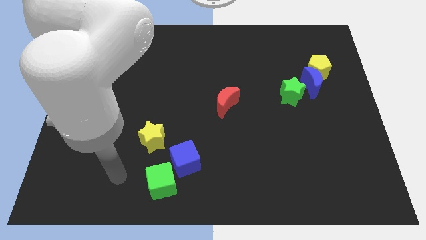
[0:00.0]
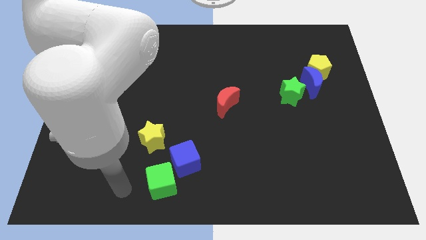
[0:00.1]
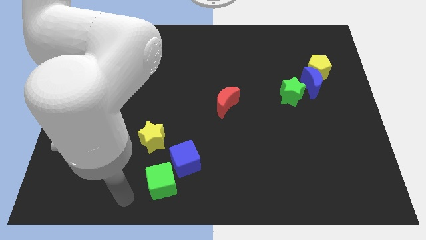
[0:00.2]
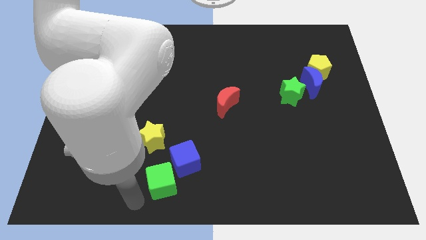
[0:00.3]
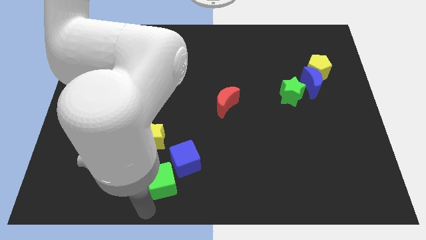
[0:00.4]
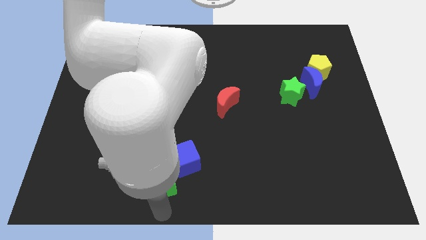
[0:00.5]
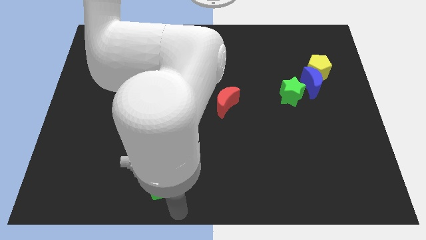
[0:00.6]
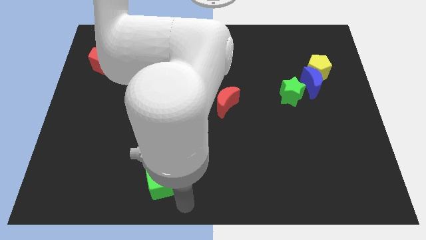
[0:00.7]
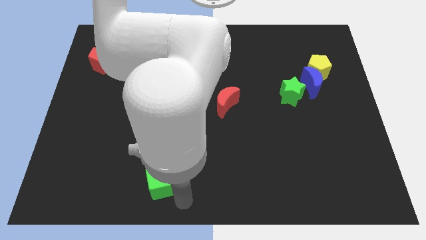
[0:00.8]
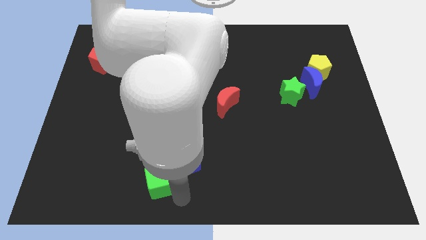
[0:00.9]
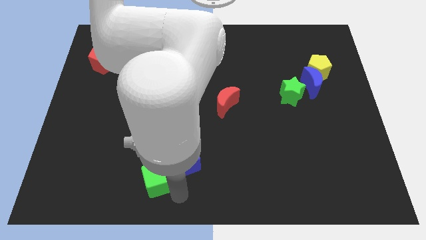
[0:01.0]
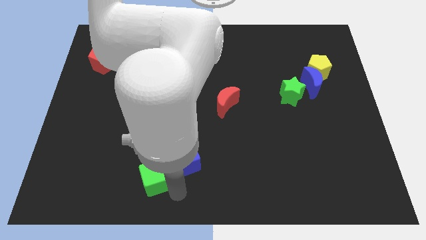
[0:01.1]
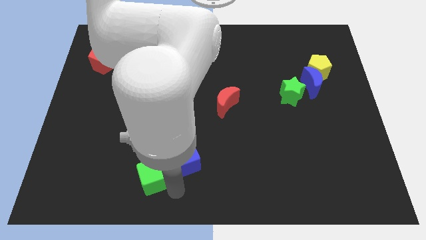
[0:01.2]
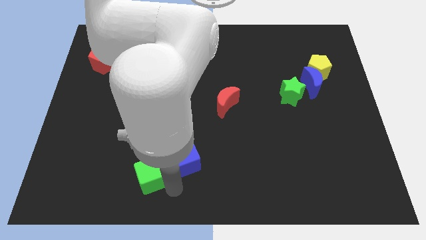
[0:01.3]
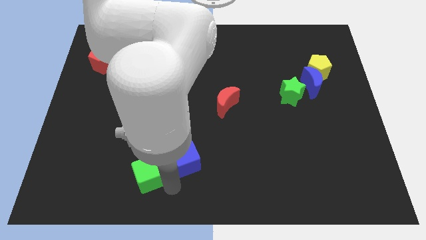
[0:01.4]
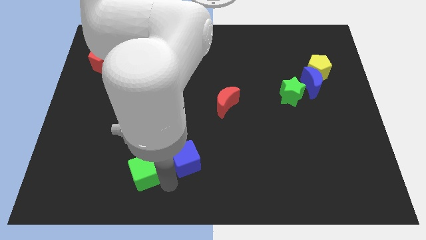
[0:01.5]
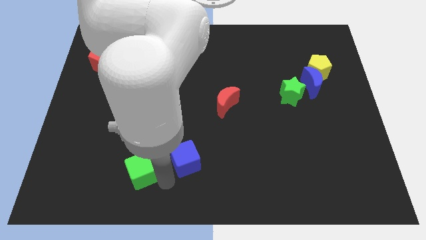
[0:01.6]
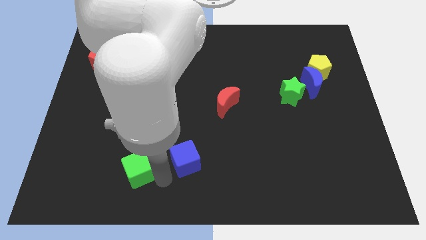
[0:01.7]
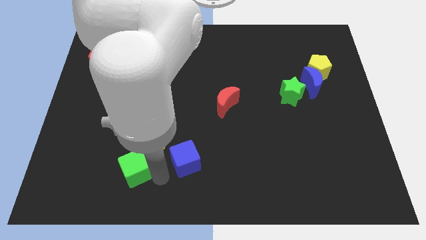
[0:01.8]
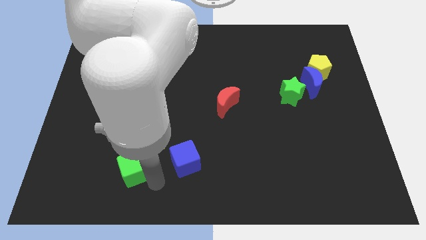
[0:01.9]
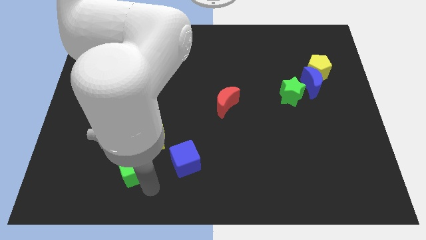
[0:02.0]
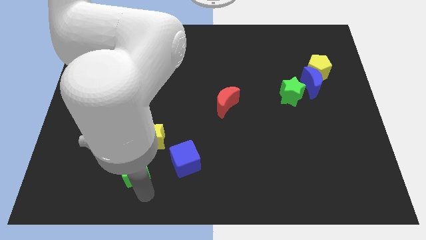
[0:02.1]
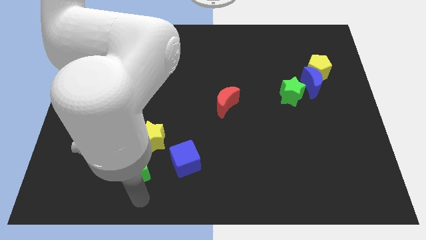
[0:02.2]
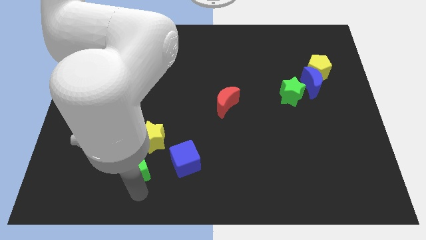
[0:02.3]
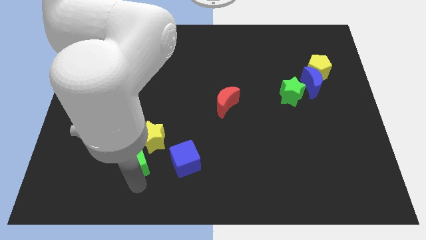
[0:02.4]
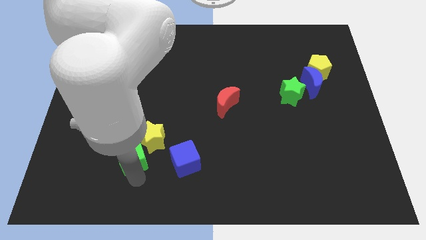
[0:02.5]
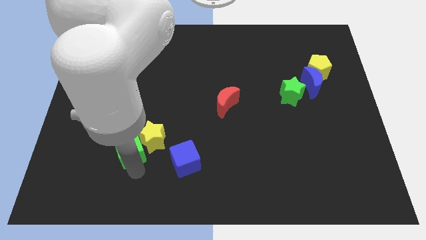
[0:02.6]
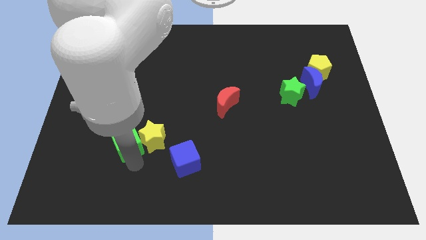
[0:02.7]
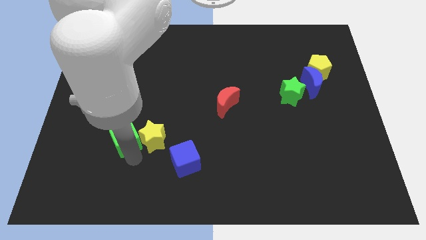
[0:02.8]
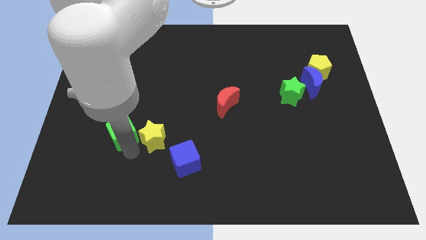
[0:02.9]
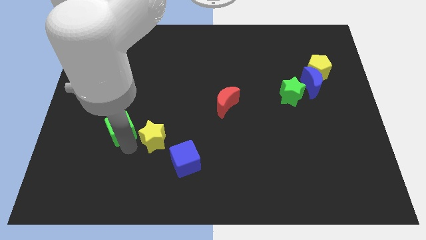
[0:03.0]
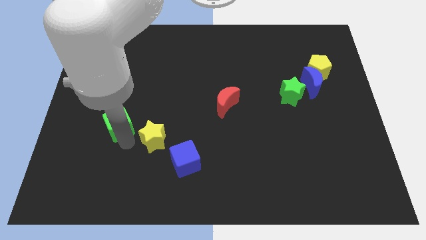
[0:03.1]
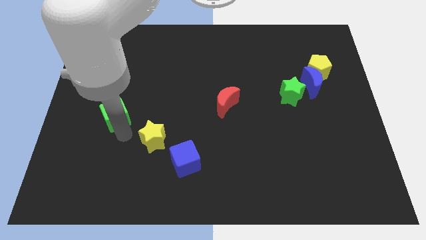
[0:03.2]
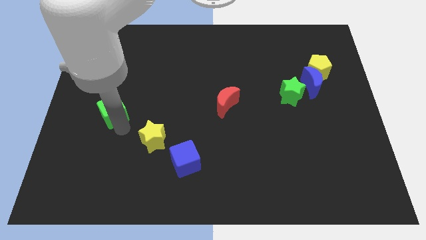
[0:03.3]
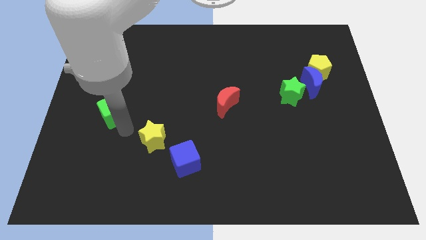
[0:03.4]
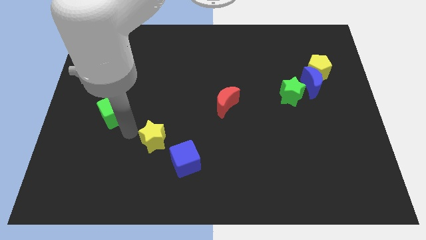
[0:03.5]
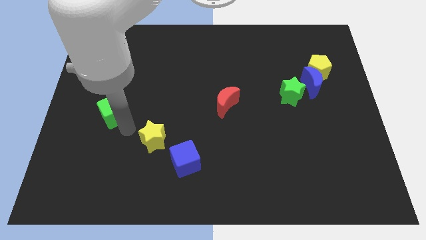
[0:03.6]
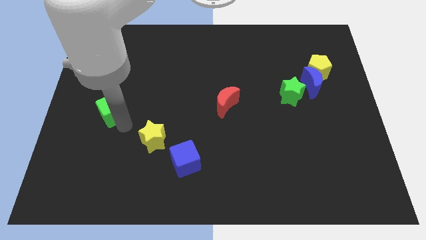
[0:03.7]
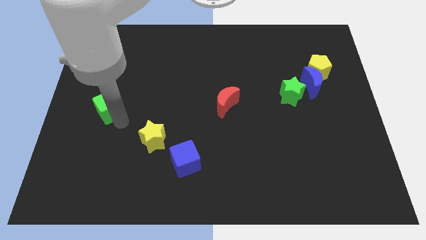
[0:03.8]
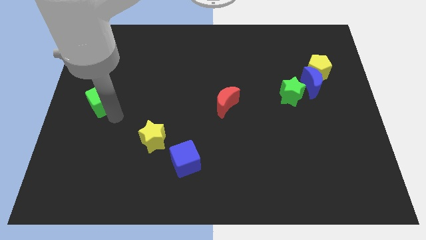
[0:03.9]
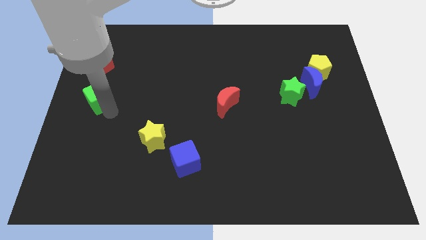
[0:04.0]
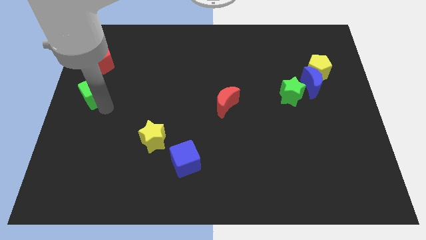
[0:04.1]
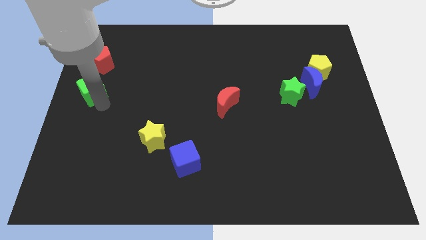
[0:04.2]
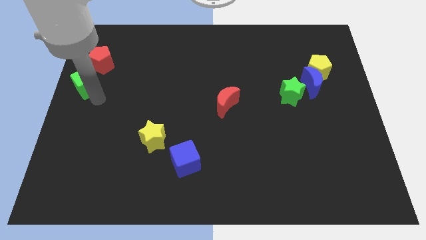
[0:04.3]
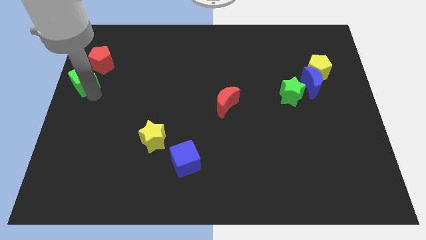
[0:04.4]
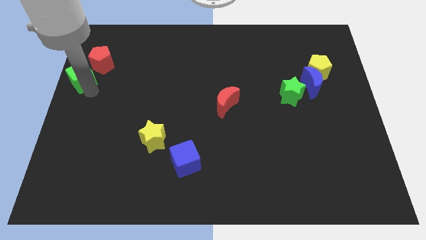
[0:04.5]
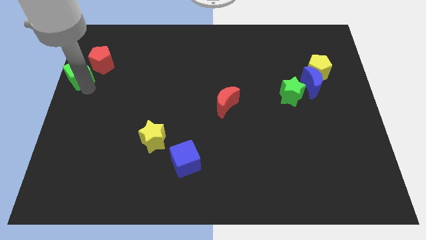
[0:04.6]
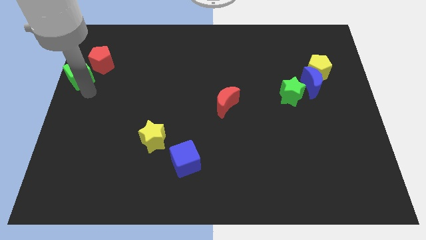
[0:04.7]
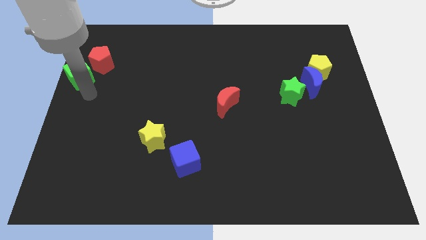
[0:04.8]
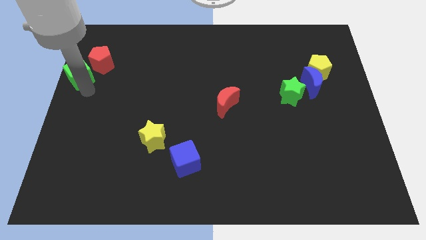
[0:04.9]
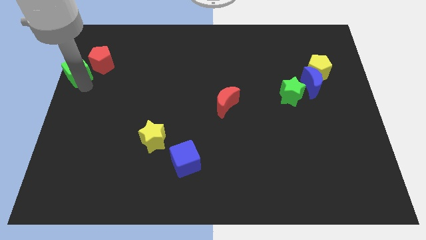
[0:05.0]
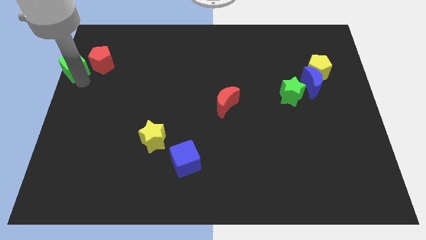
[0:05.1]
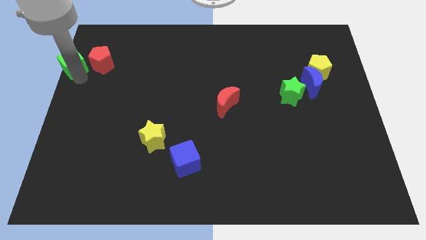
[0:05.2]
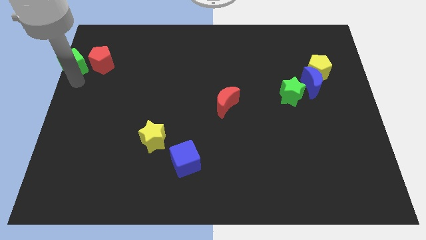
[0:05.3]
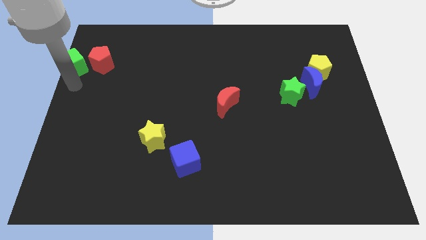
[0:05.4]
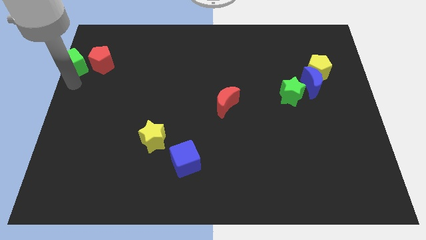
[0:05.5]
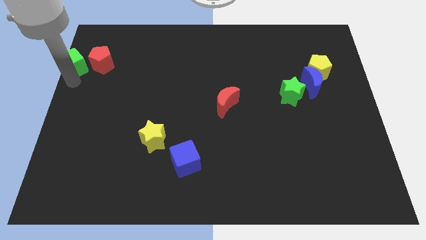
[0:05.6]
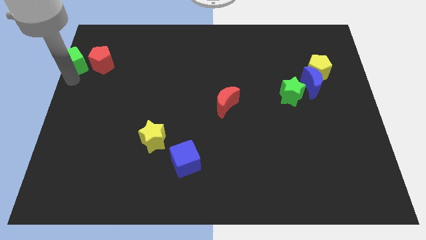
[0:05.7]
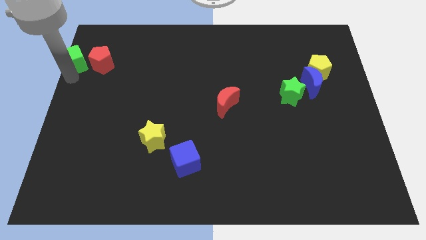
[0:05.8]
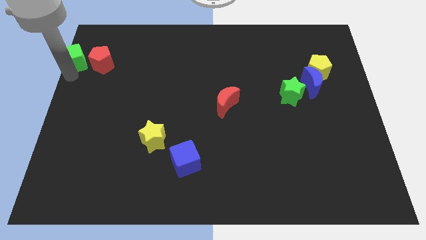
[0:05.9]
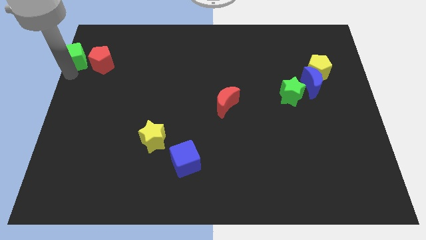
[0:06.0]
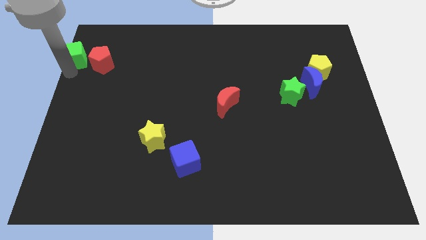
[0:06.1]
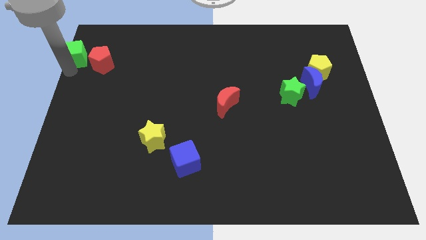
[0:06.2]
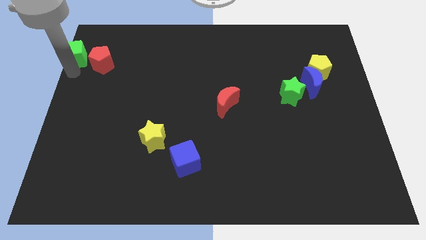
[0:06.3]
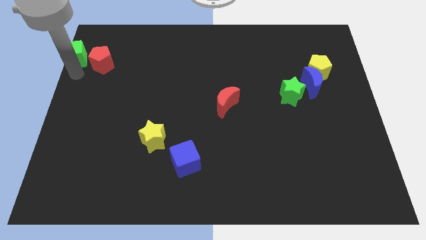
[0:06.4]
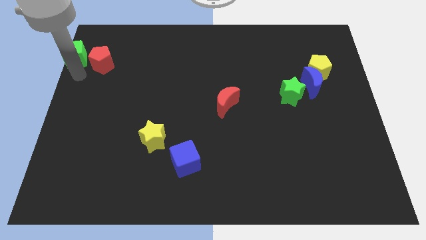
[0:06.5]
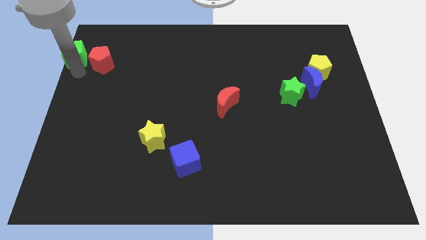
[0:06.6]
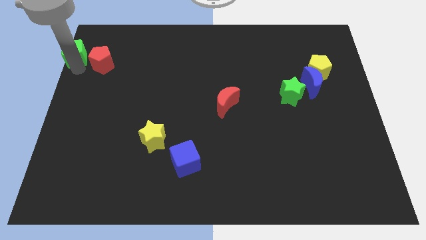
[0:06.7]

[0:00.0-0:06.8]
push the green cube to the top left of the board
